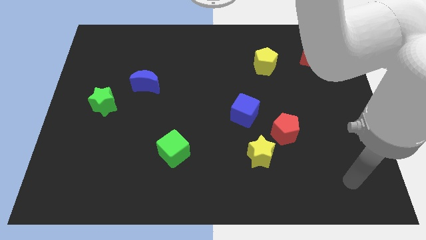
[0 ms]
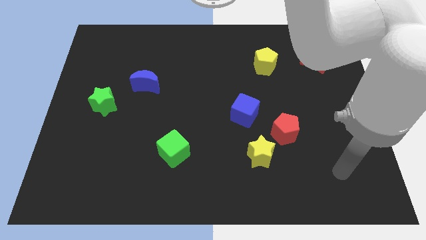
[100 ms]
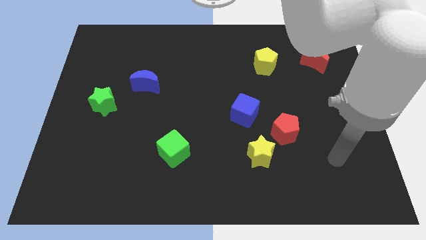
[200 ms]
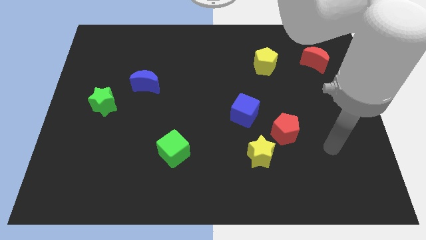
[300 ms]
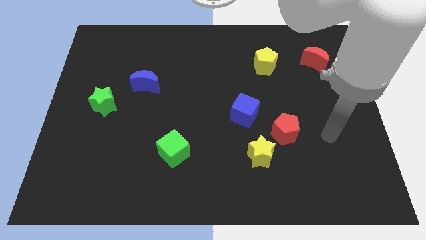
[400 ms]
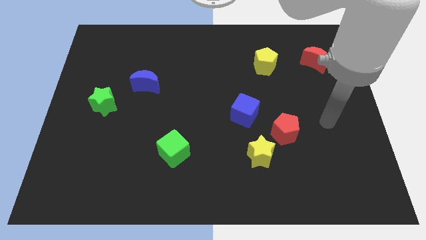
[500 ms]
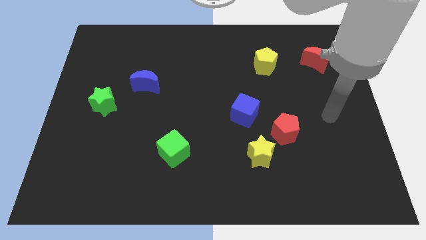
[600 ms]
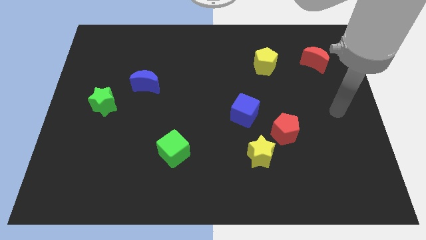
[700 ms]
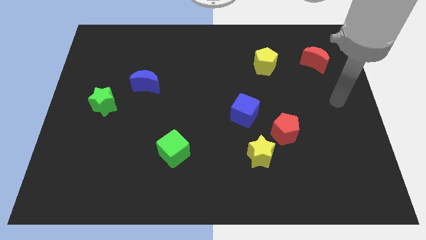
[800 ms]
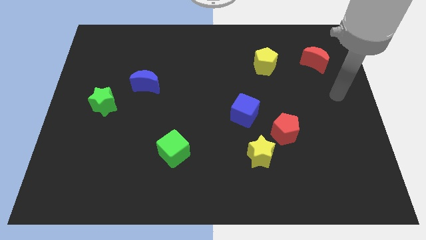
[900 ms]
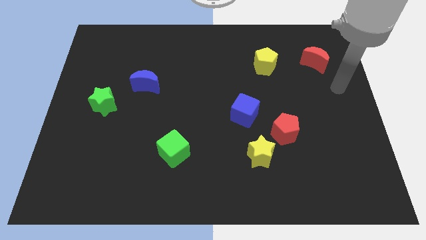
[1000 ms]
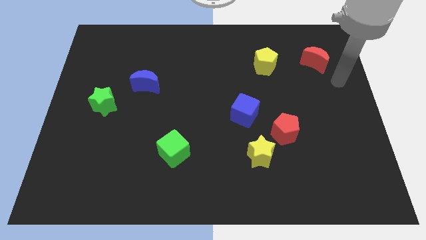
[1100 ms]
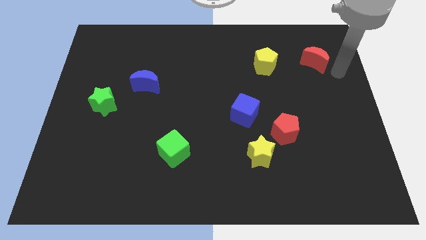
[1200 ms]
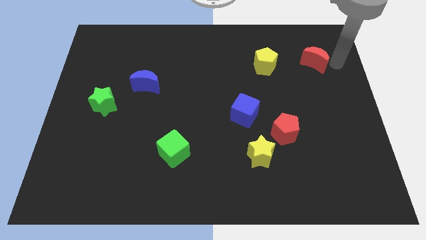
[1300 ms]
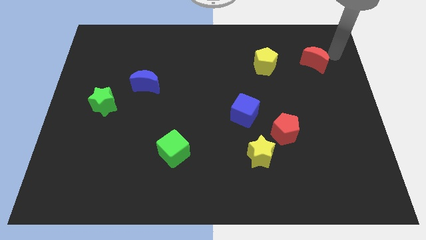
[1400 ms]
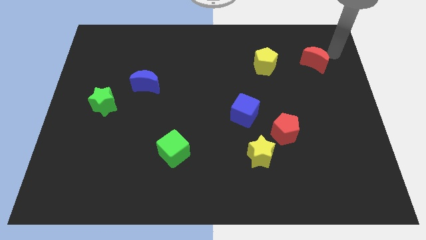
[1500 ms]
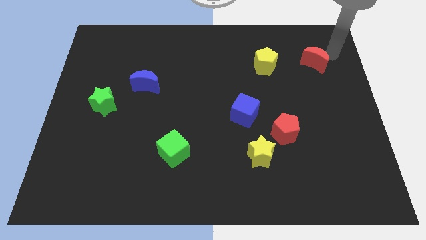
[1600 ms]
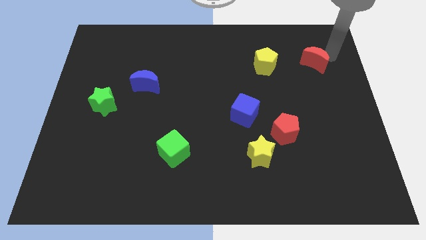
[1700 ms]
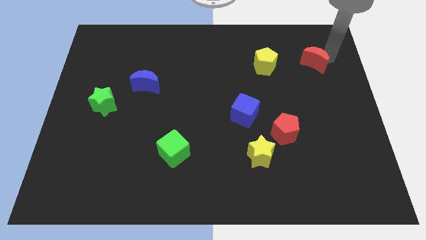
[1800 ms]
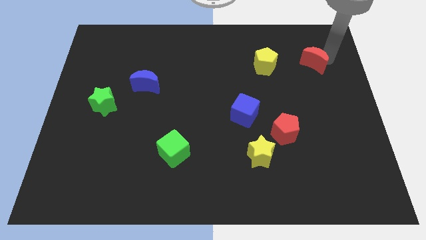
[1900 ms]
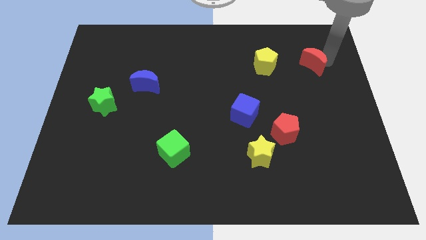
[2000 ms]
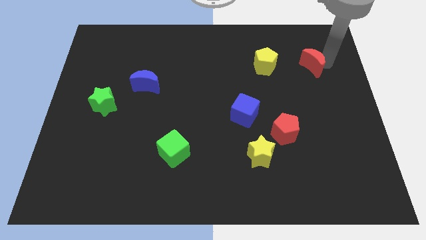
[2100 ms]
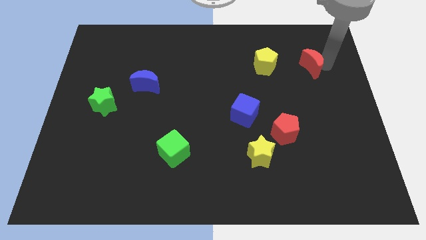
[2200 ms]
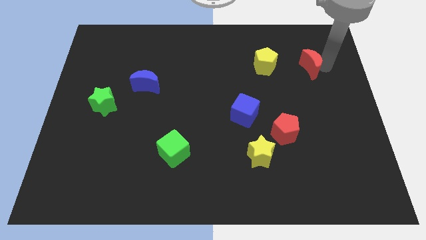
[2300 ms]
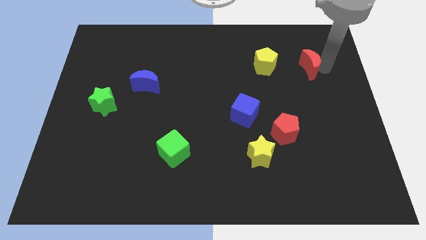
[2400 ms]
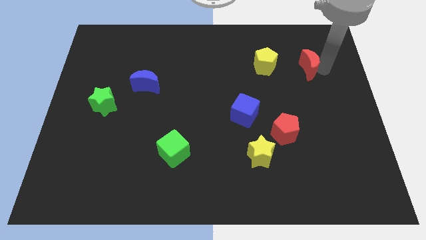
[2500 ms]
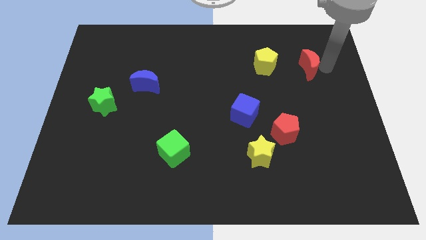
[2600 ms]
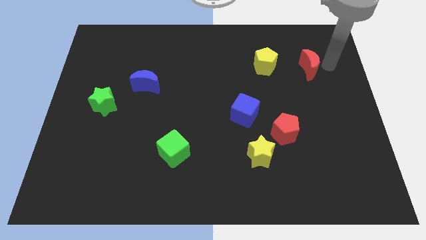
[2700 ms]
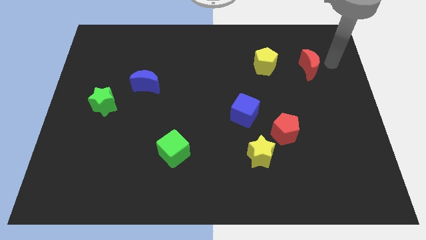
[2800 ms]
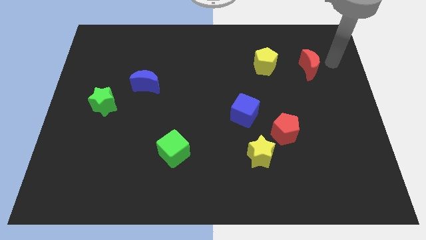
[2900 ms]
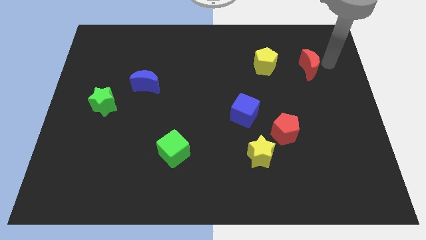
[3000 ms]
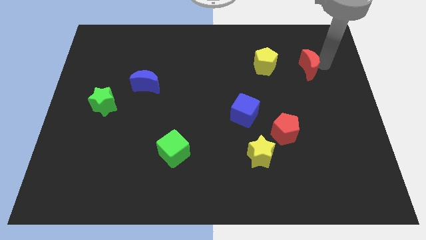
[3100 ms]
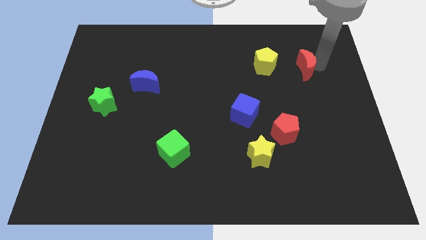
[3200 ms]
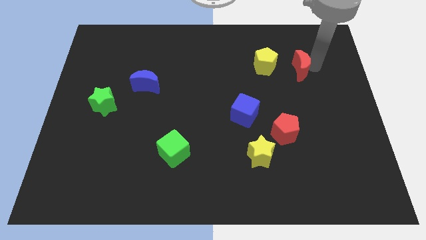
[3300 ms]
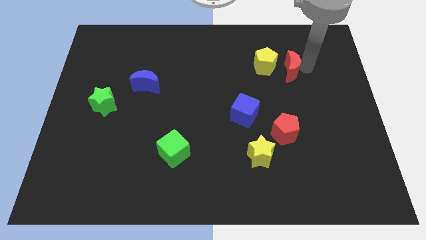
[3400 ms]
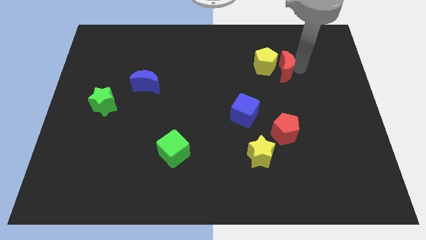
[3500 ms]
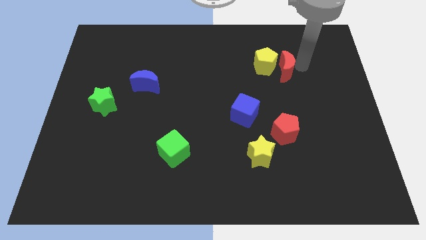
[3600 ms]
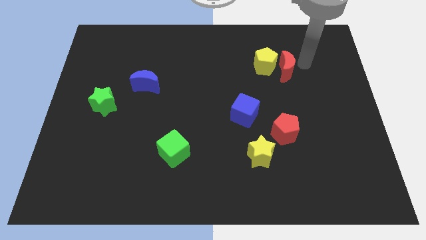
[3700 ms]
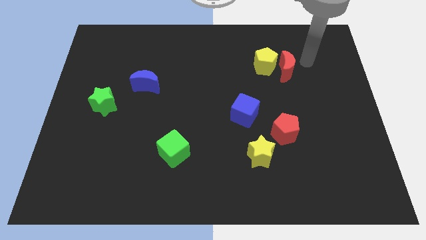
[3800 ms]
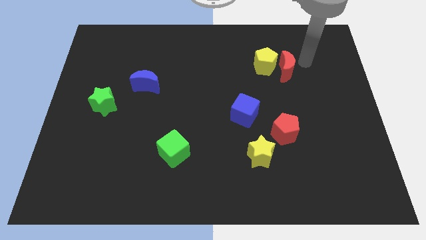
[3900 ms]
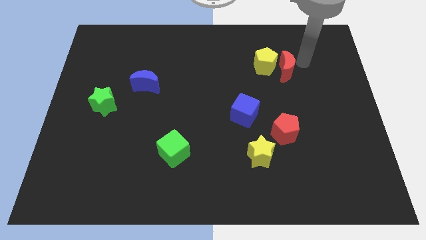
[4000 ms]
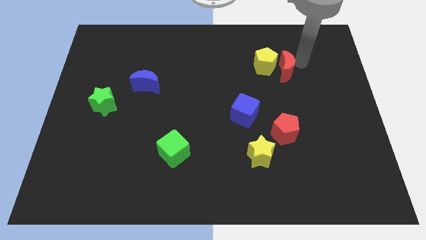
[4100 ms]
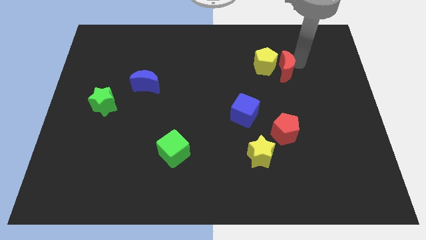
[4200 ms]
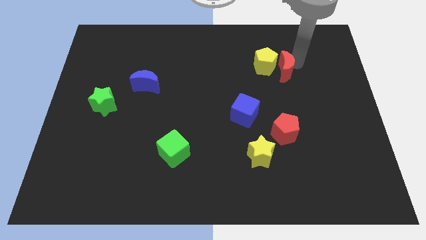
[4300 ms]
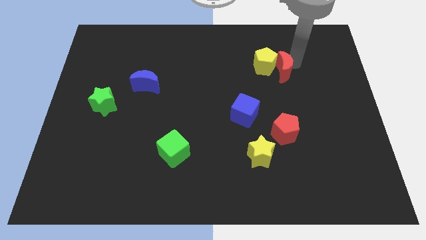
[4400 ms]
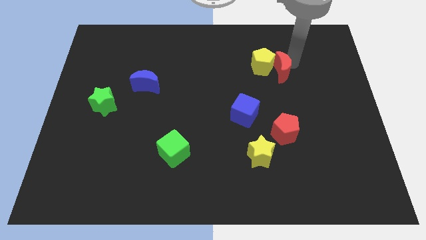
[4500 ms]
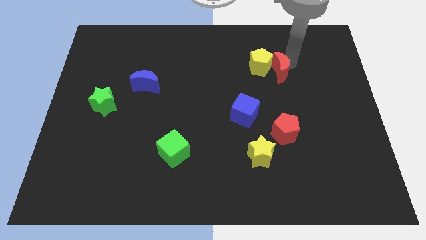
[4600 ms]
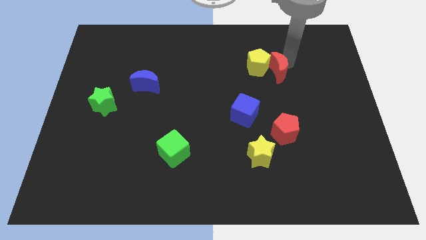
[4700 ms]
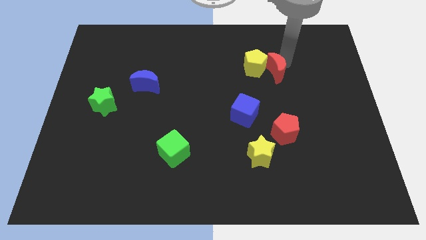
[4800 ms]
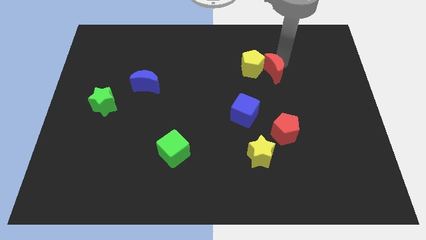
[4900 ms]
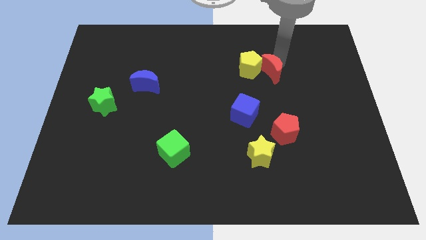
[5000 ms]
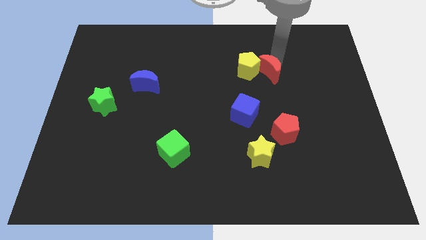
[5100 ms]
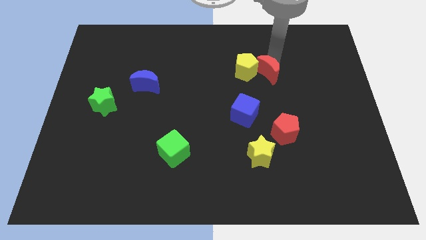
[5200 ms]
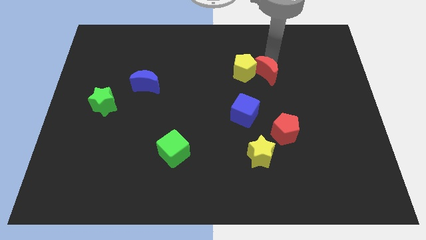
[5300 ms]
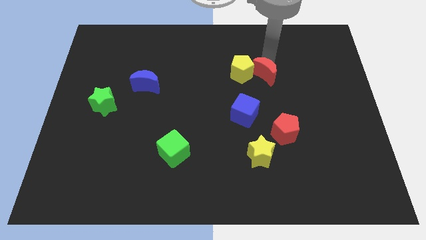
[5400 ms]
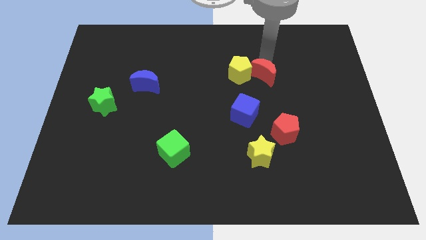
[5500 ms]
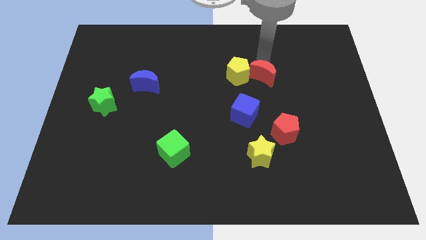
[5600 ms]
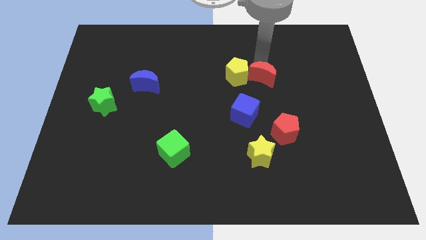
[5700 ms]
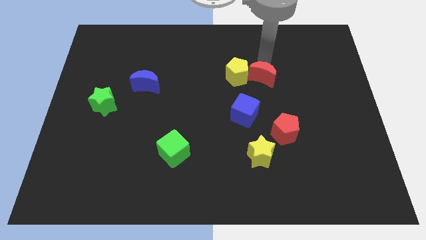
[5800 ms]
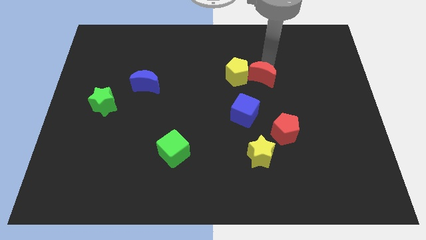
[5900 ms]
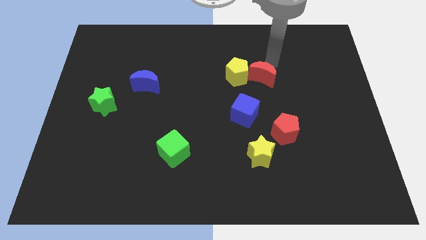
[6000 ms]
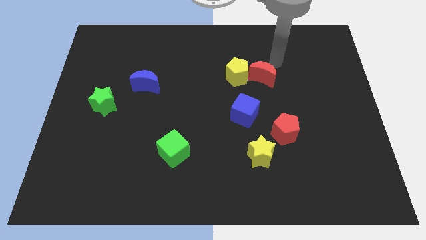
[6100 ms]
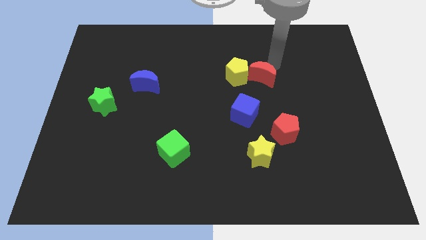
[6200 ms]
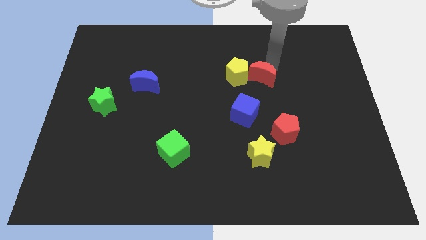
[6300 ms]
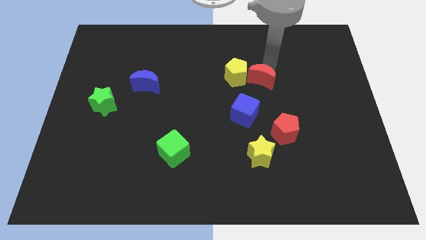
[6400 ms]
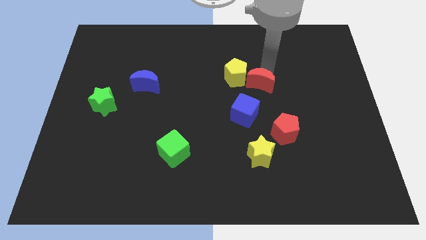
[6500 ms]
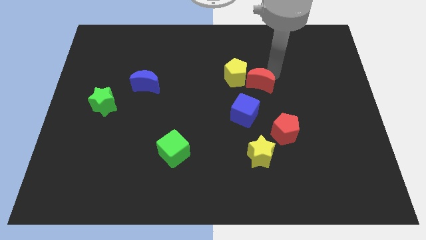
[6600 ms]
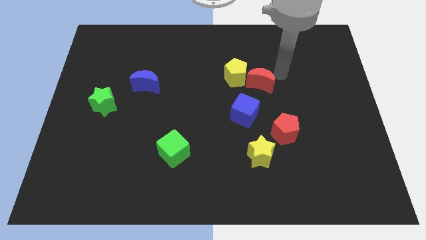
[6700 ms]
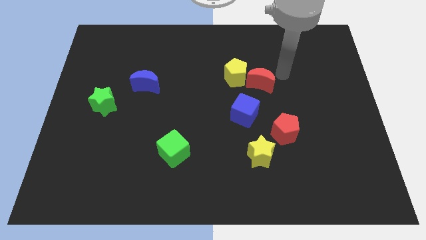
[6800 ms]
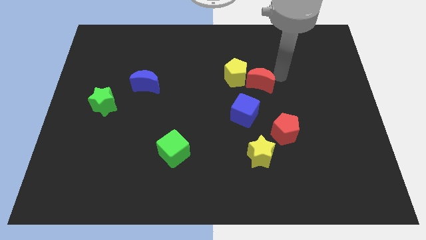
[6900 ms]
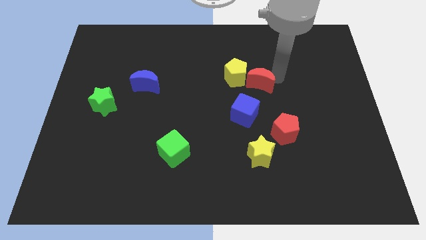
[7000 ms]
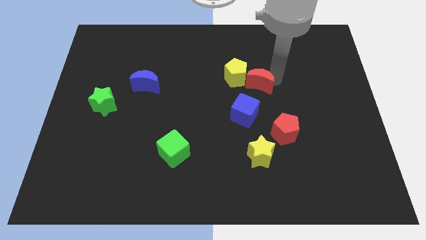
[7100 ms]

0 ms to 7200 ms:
slide the red moon to the middle
